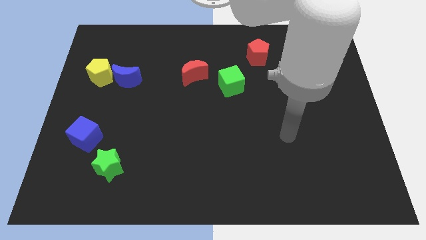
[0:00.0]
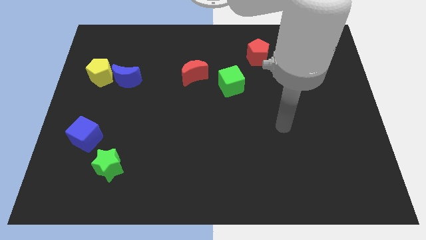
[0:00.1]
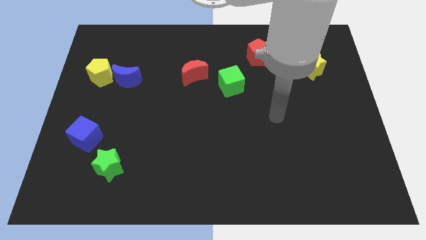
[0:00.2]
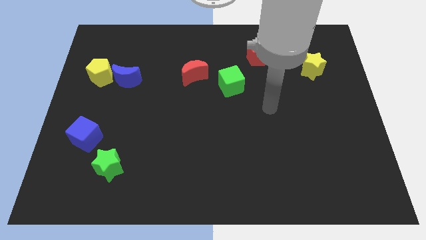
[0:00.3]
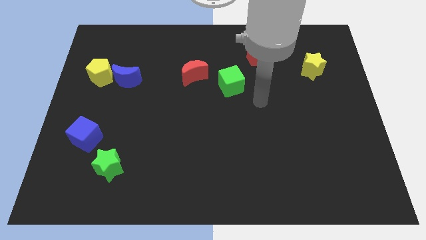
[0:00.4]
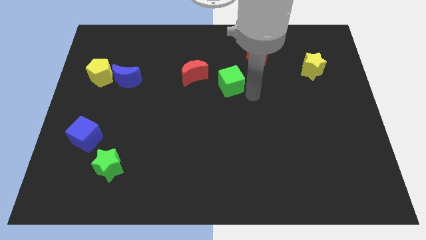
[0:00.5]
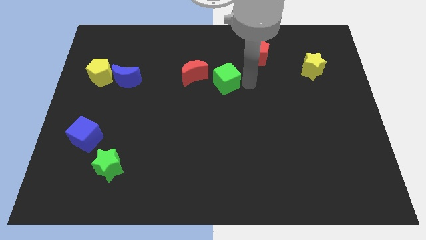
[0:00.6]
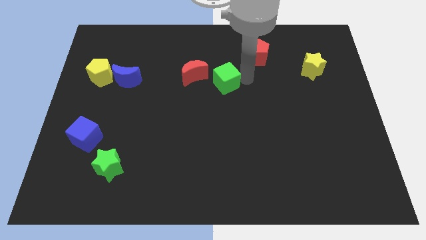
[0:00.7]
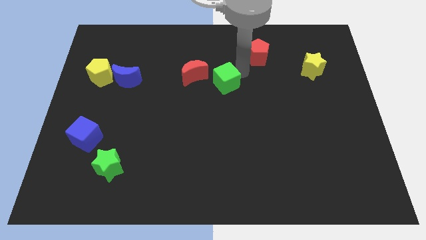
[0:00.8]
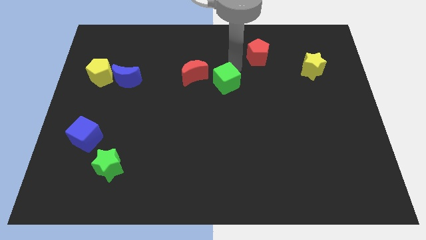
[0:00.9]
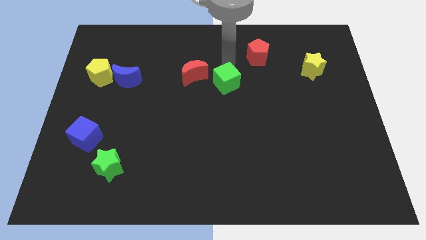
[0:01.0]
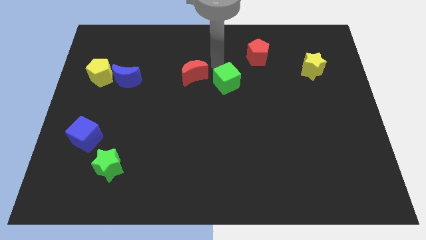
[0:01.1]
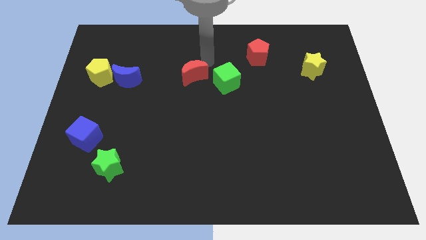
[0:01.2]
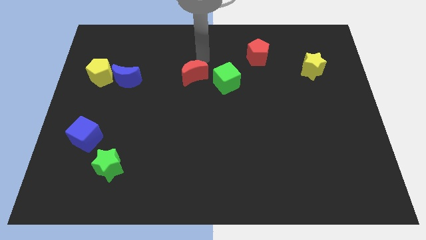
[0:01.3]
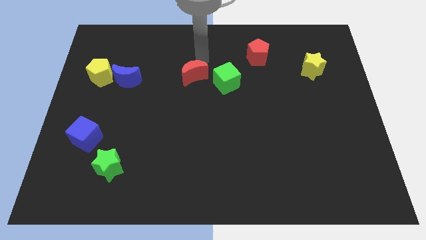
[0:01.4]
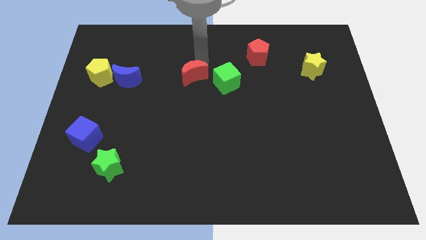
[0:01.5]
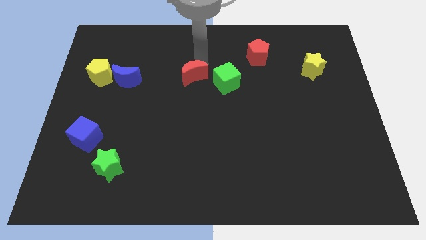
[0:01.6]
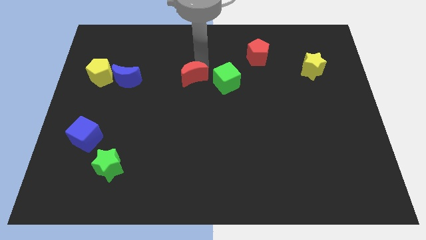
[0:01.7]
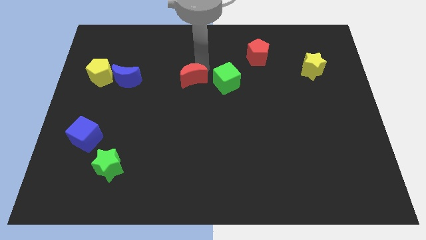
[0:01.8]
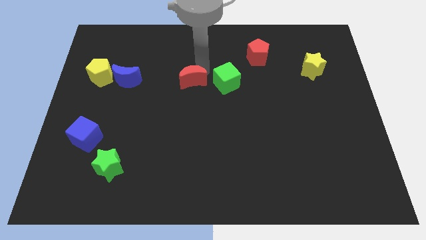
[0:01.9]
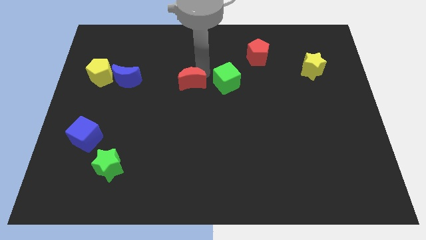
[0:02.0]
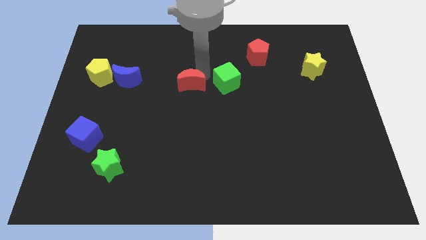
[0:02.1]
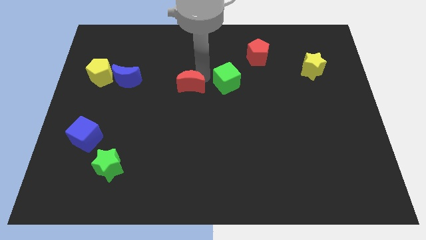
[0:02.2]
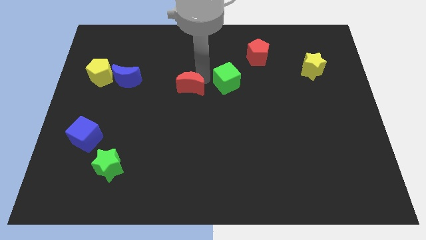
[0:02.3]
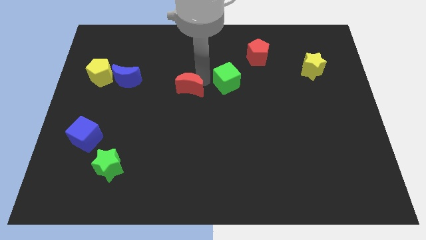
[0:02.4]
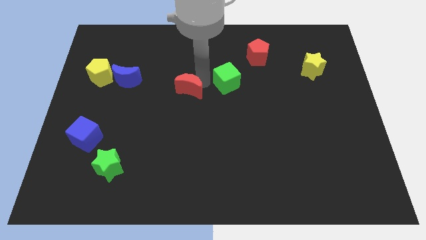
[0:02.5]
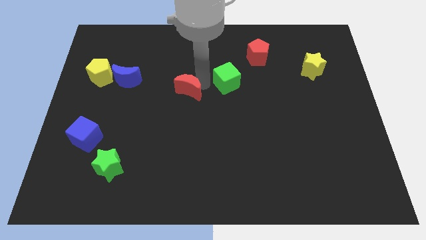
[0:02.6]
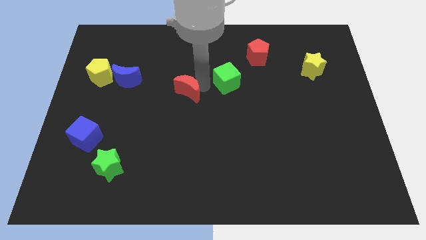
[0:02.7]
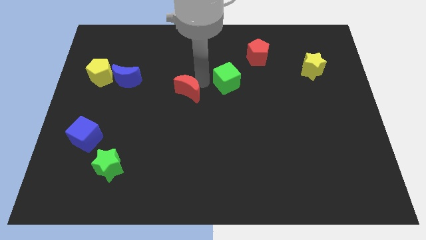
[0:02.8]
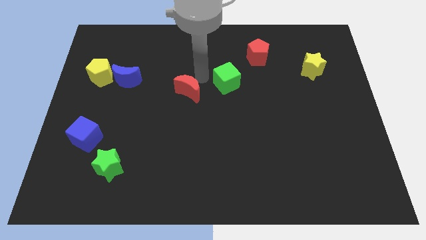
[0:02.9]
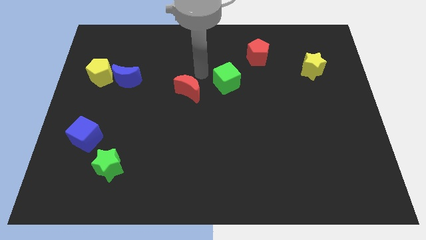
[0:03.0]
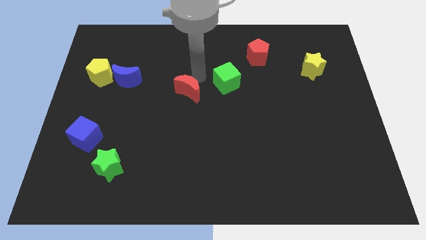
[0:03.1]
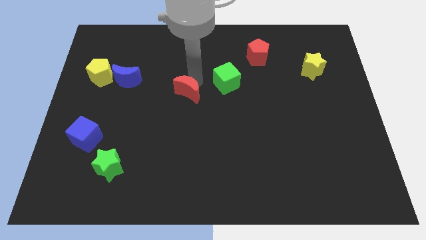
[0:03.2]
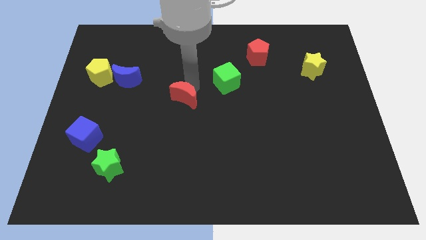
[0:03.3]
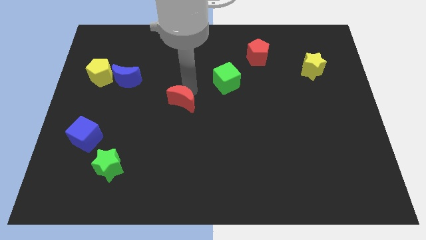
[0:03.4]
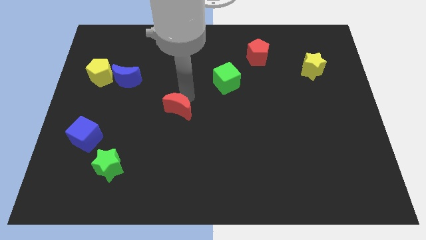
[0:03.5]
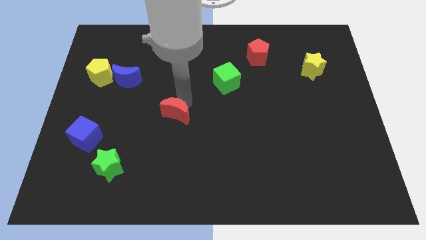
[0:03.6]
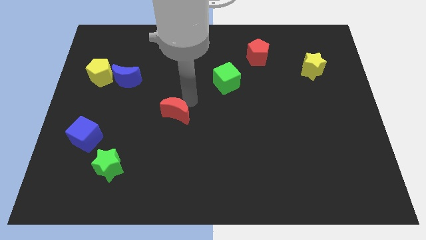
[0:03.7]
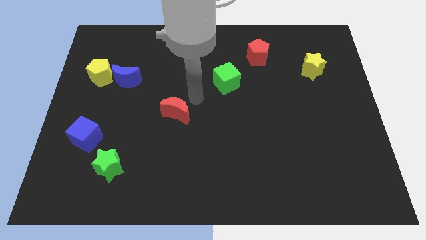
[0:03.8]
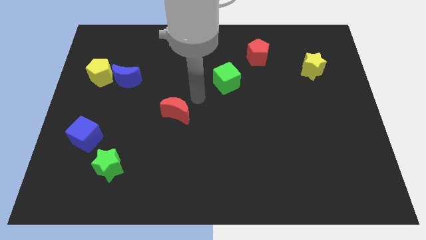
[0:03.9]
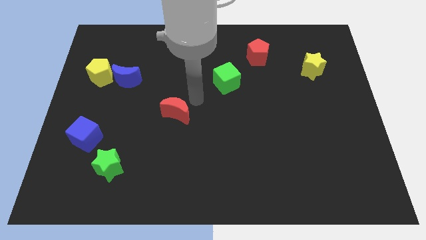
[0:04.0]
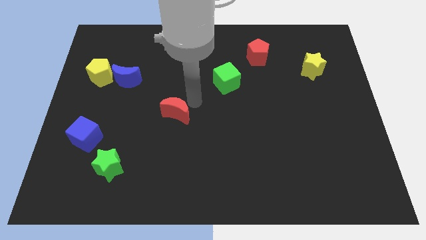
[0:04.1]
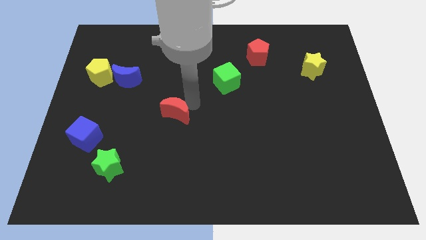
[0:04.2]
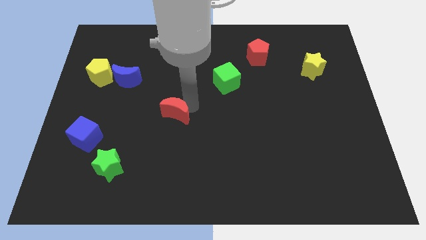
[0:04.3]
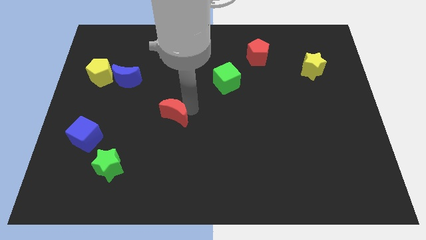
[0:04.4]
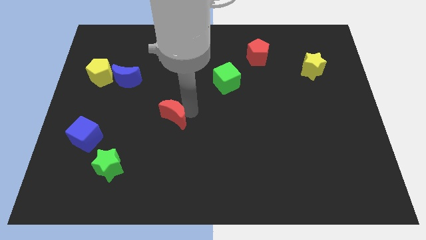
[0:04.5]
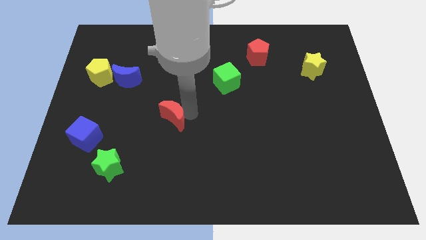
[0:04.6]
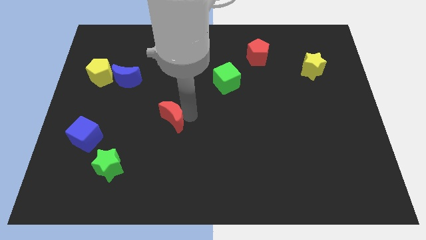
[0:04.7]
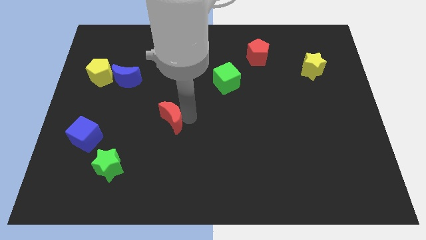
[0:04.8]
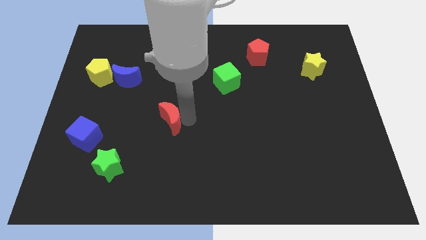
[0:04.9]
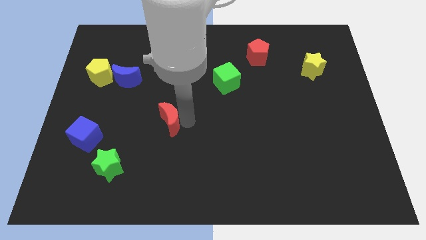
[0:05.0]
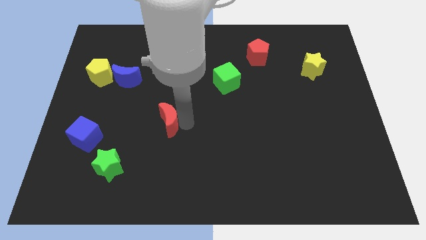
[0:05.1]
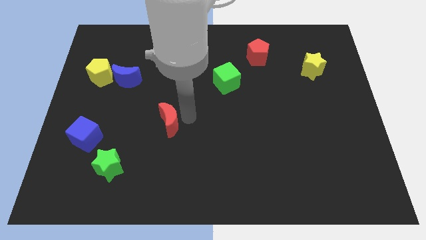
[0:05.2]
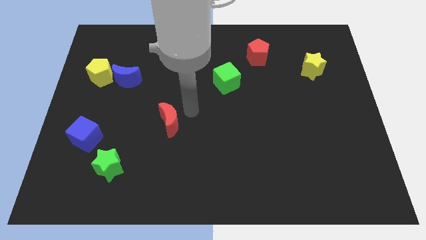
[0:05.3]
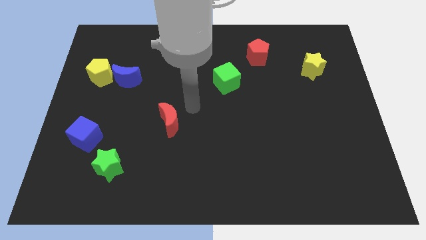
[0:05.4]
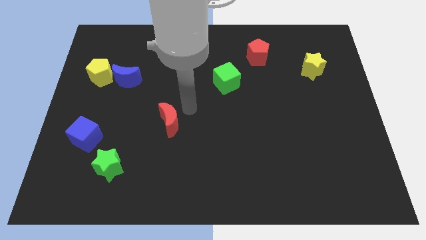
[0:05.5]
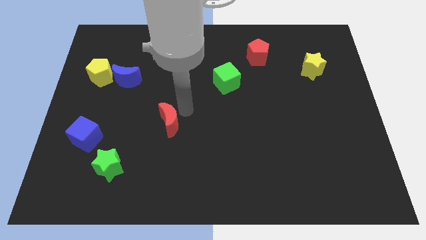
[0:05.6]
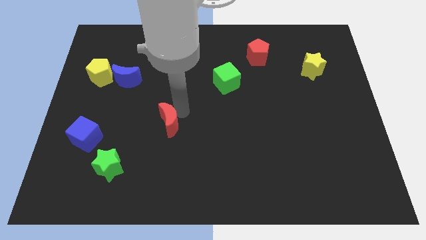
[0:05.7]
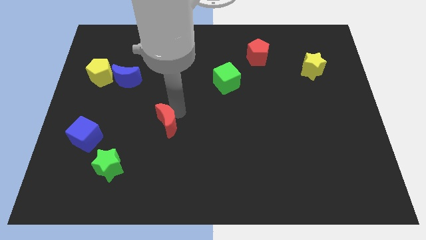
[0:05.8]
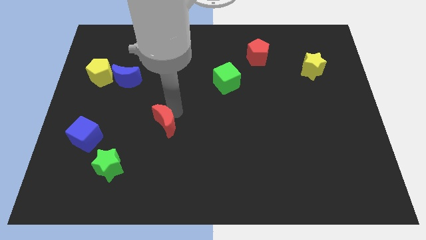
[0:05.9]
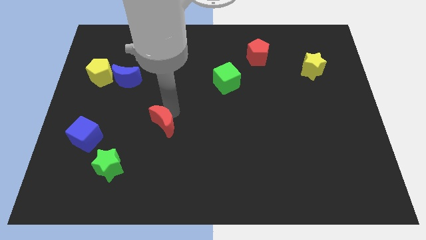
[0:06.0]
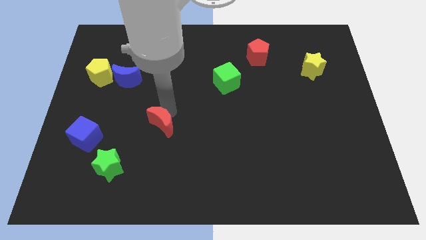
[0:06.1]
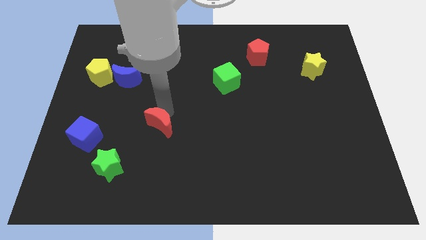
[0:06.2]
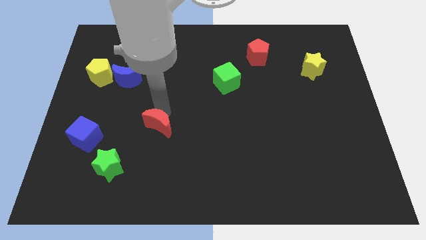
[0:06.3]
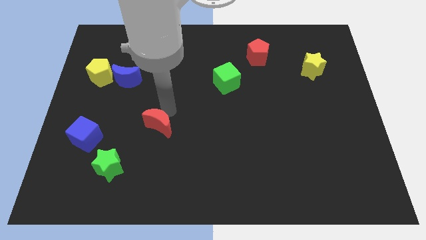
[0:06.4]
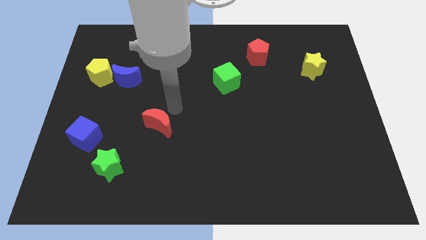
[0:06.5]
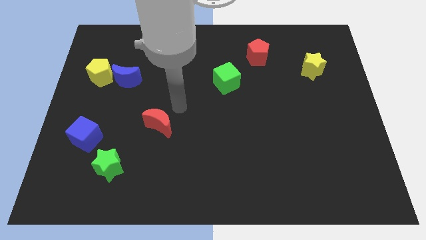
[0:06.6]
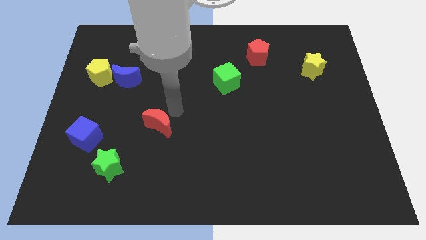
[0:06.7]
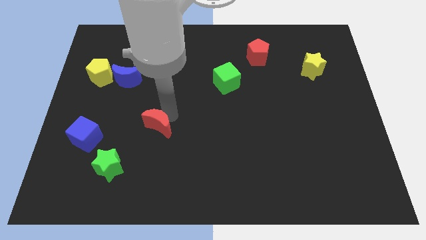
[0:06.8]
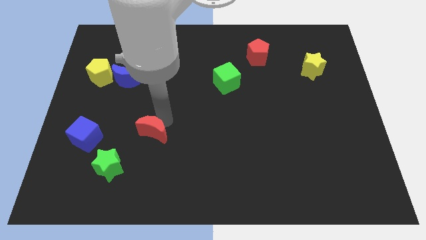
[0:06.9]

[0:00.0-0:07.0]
slide the red moon to the top right side of the green star

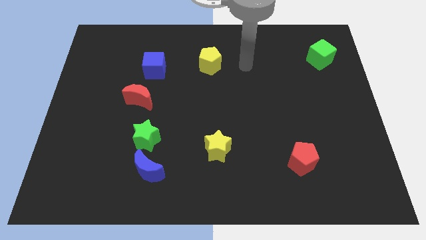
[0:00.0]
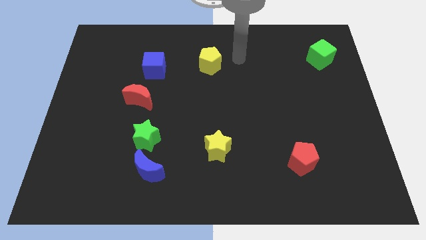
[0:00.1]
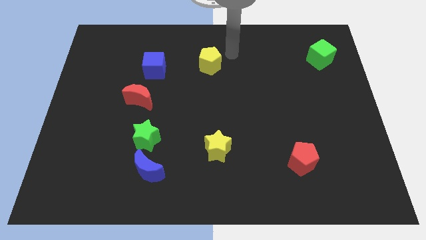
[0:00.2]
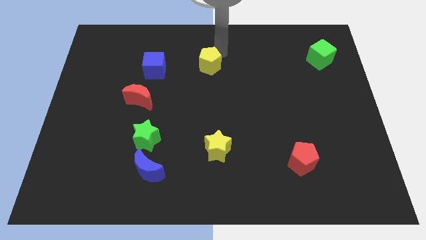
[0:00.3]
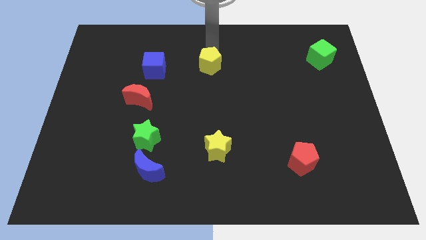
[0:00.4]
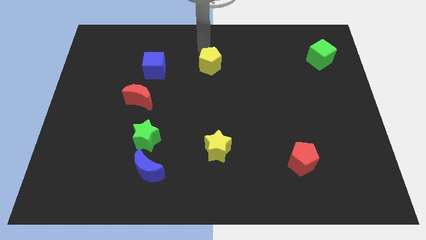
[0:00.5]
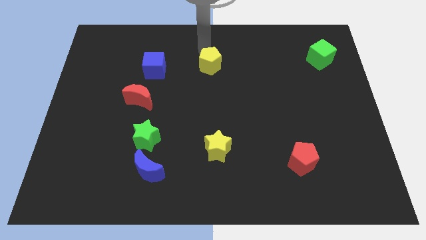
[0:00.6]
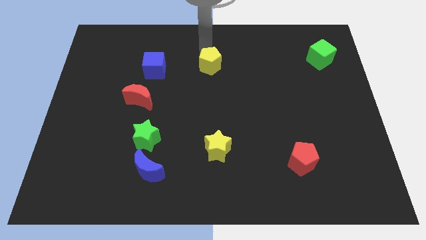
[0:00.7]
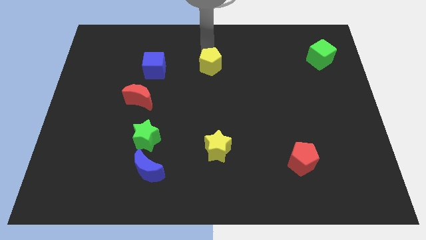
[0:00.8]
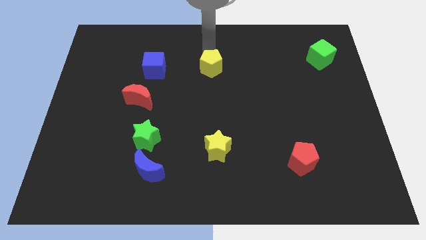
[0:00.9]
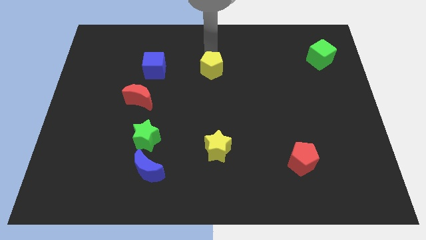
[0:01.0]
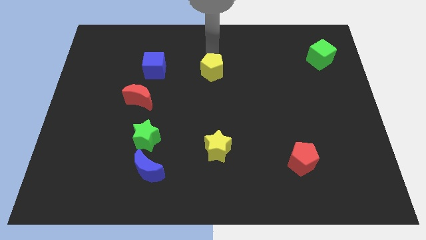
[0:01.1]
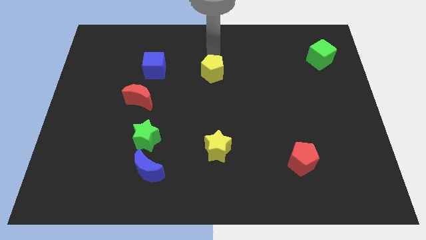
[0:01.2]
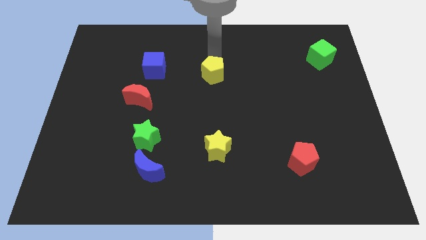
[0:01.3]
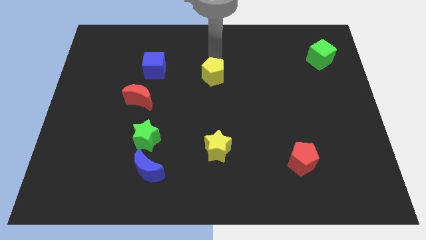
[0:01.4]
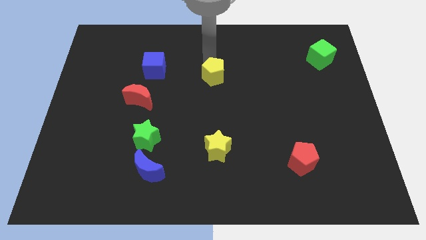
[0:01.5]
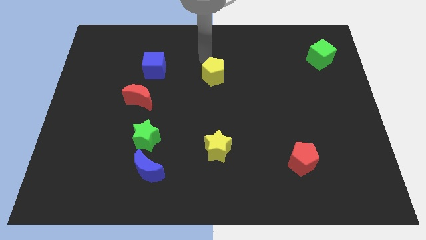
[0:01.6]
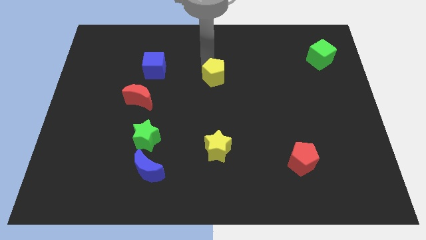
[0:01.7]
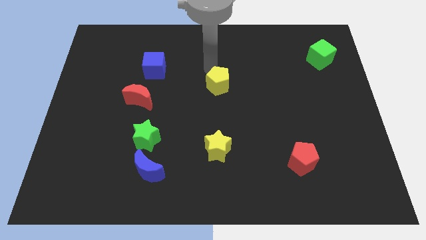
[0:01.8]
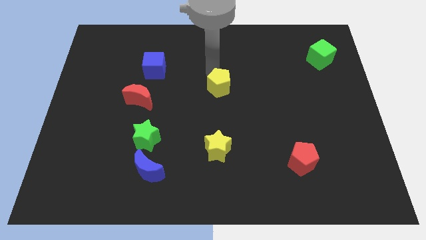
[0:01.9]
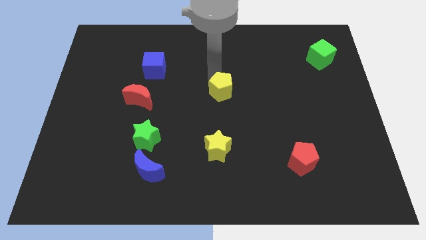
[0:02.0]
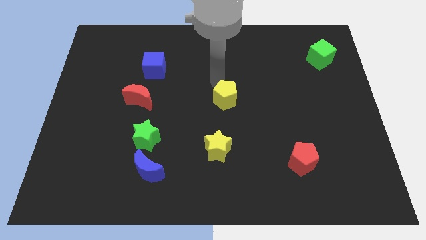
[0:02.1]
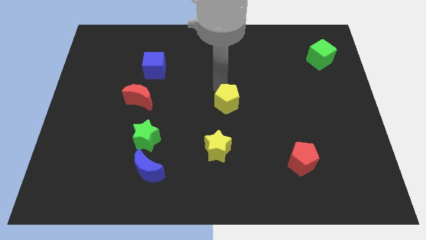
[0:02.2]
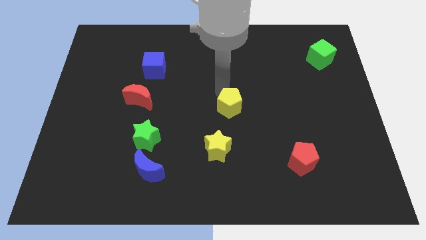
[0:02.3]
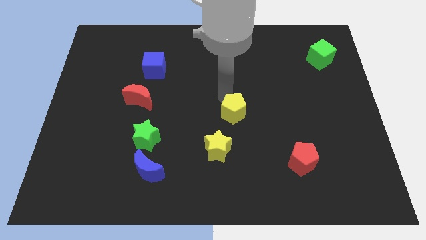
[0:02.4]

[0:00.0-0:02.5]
move the yellow pentagon diagonally up and to the right of the yellow star
